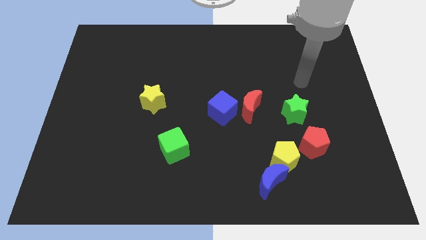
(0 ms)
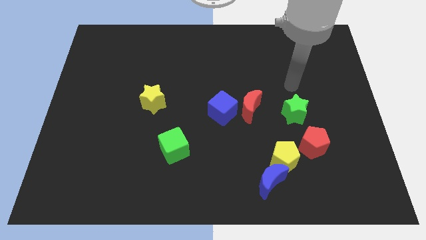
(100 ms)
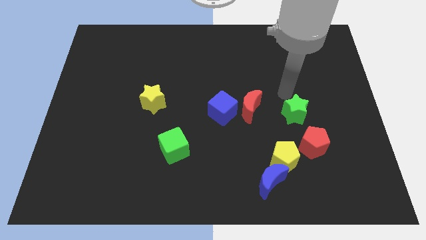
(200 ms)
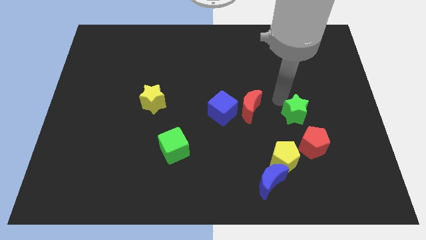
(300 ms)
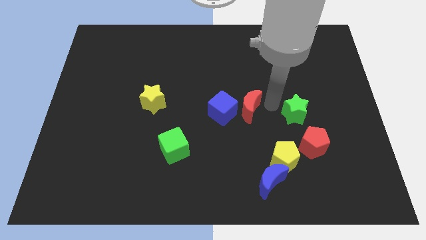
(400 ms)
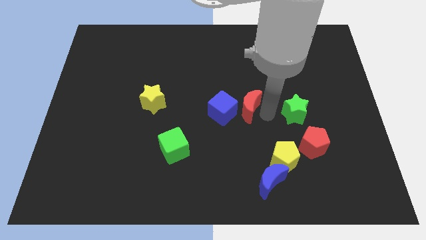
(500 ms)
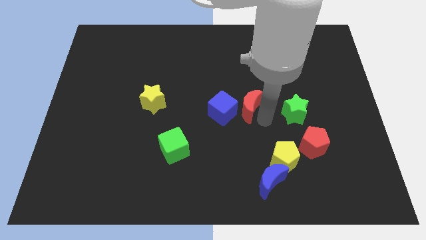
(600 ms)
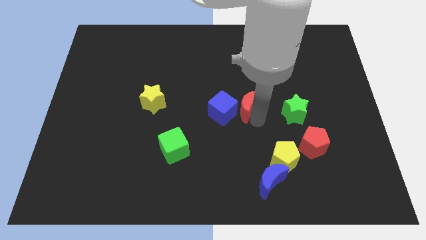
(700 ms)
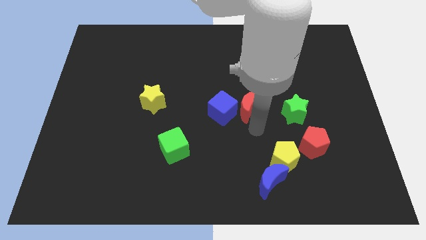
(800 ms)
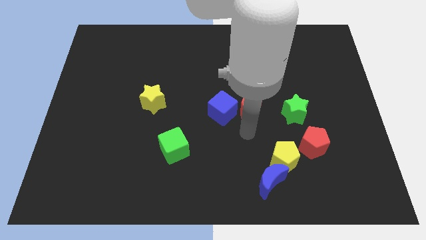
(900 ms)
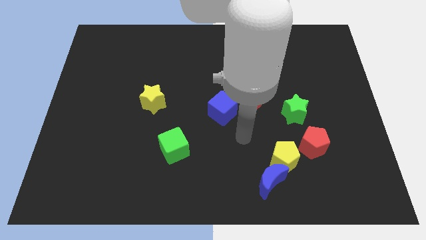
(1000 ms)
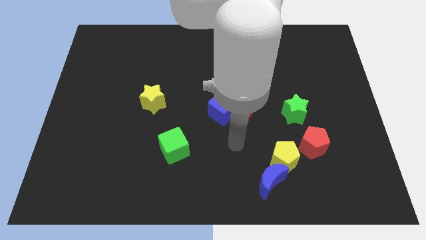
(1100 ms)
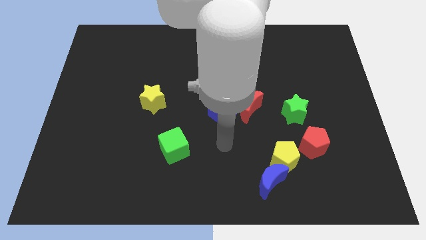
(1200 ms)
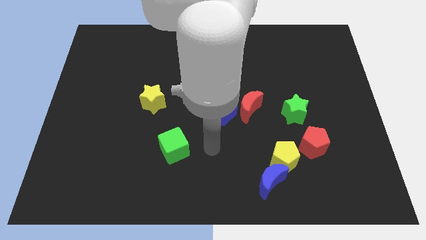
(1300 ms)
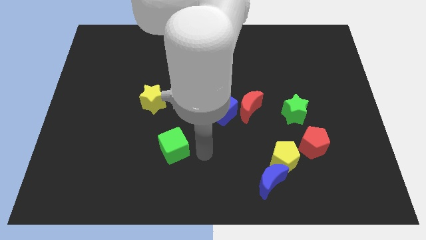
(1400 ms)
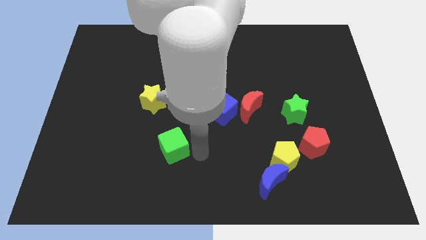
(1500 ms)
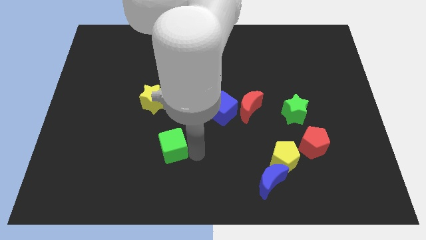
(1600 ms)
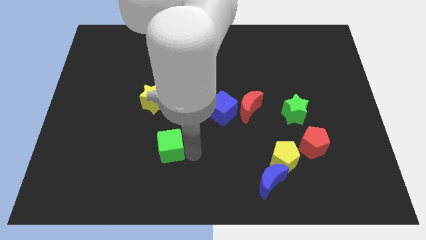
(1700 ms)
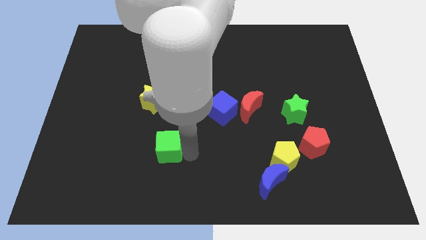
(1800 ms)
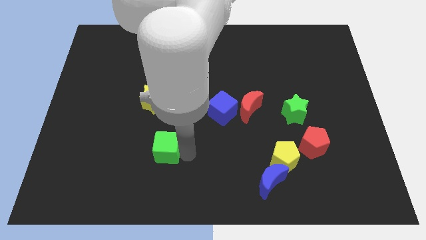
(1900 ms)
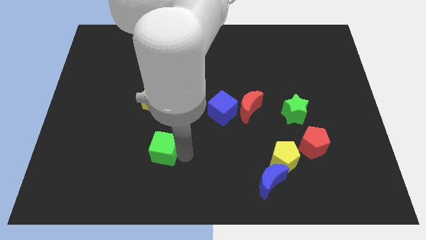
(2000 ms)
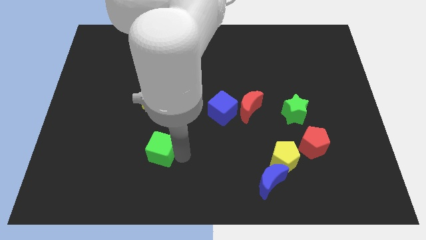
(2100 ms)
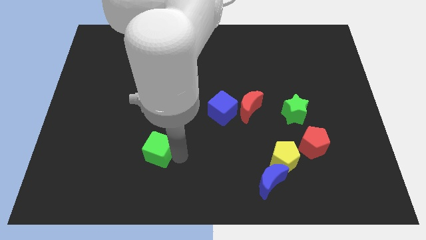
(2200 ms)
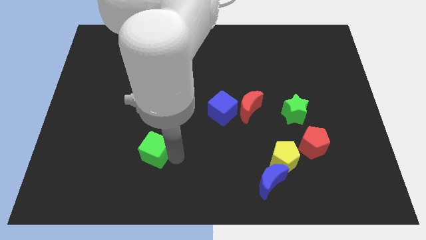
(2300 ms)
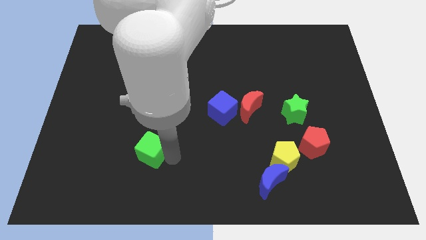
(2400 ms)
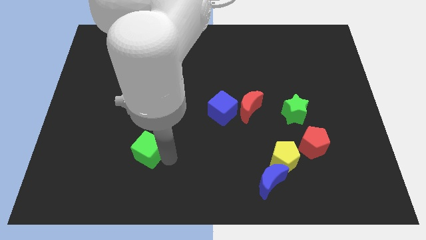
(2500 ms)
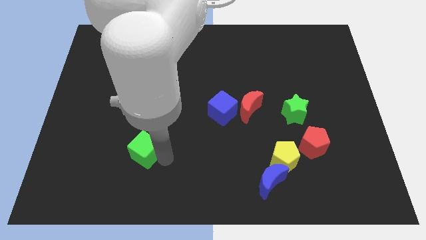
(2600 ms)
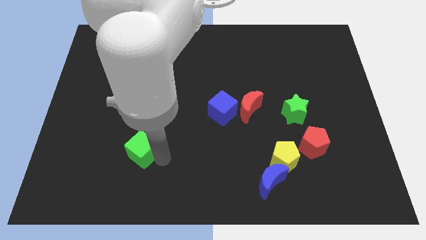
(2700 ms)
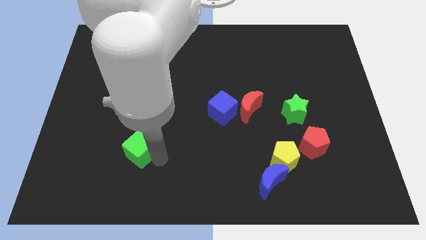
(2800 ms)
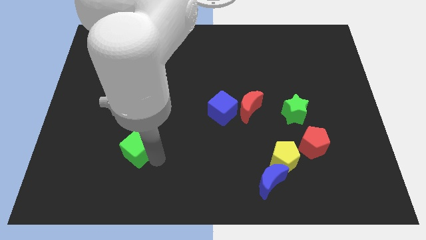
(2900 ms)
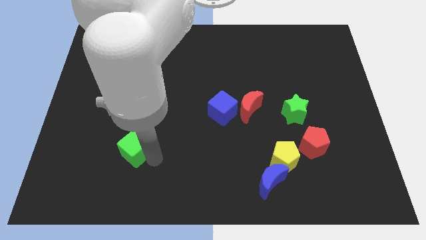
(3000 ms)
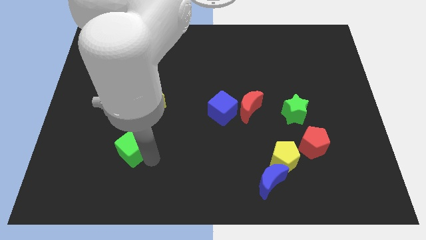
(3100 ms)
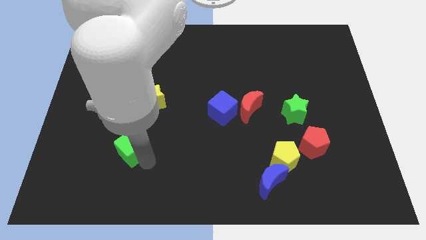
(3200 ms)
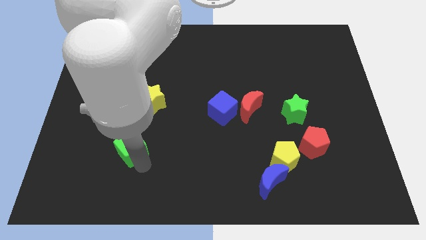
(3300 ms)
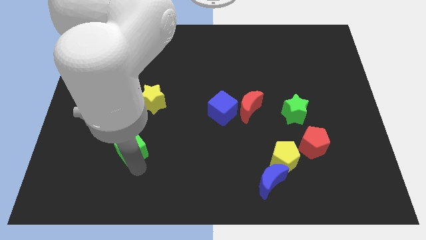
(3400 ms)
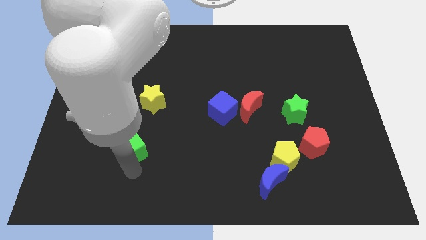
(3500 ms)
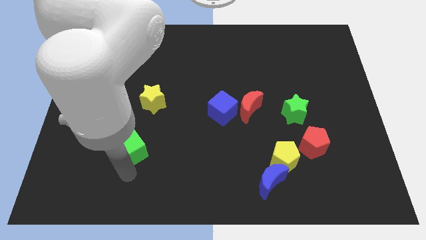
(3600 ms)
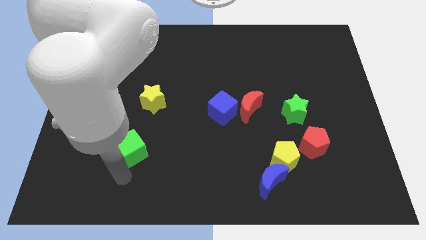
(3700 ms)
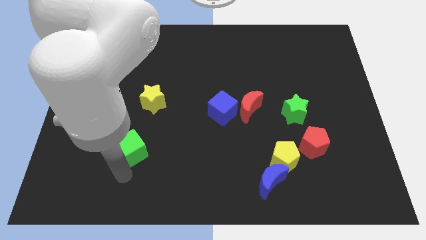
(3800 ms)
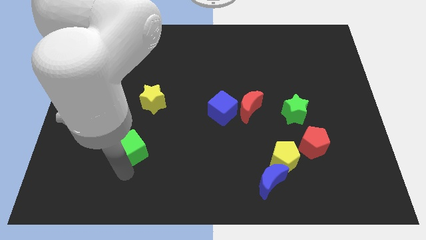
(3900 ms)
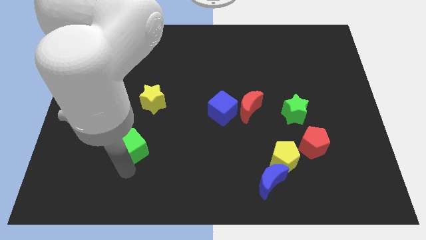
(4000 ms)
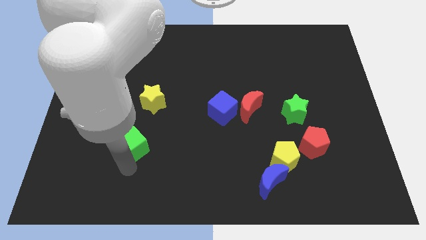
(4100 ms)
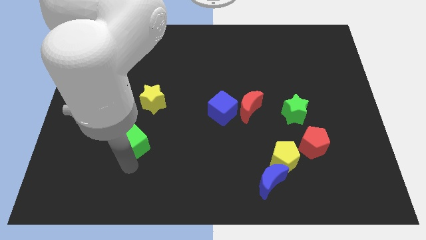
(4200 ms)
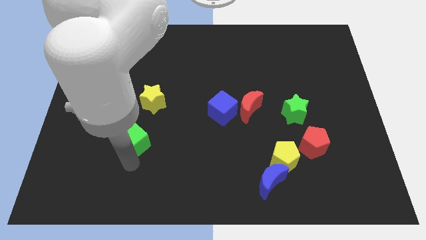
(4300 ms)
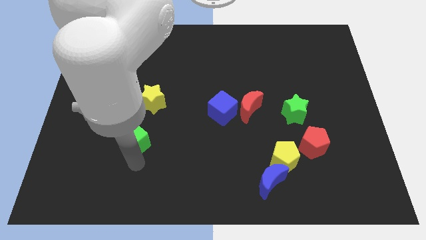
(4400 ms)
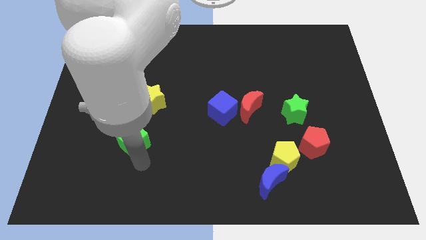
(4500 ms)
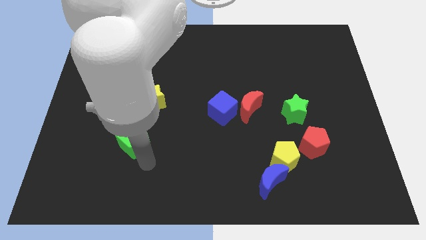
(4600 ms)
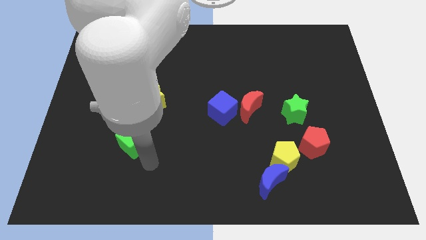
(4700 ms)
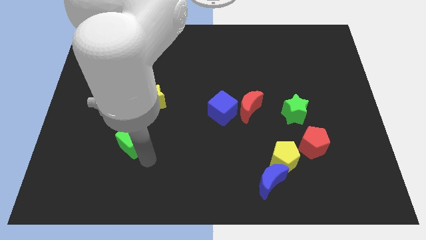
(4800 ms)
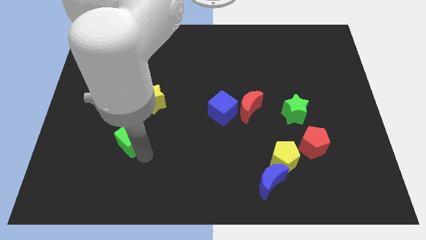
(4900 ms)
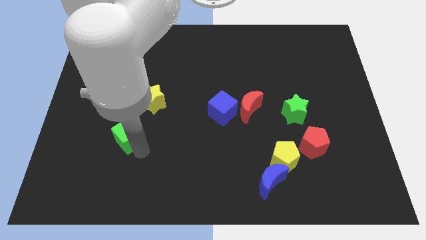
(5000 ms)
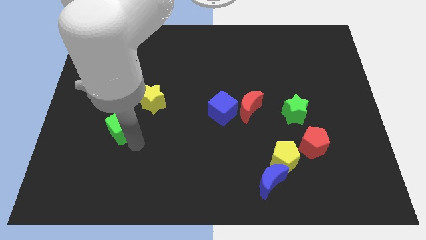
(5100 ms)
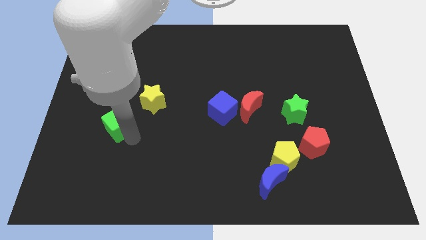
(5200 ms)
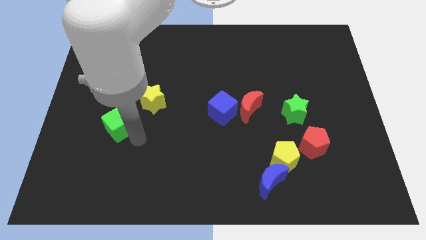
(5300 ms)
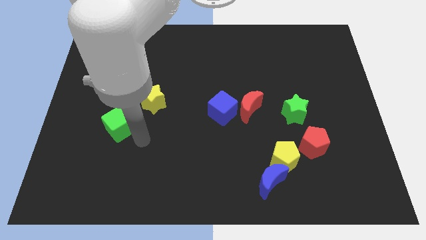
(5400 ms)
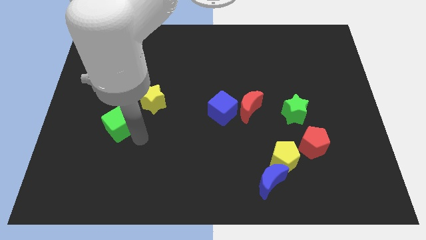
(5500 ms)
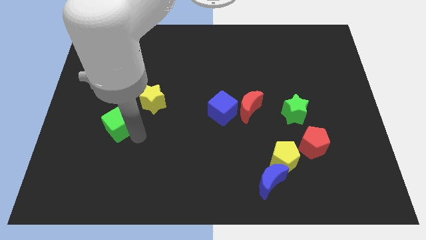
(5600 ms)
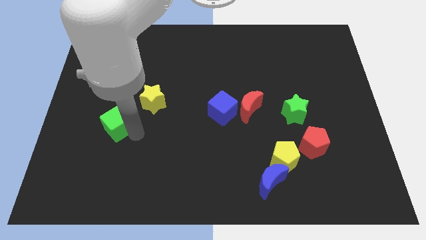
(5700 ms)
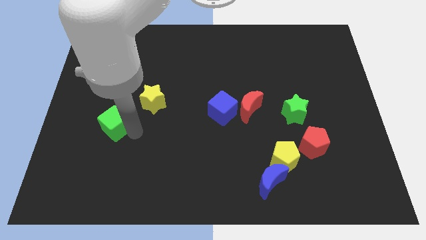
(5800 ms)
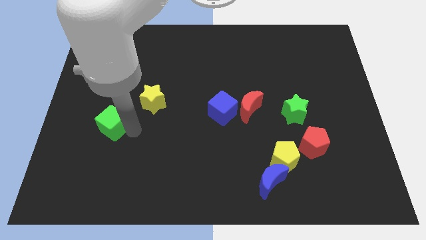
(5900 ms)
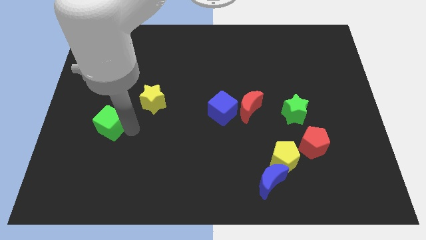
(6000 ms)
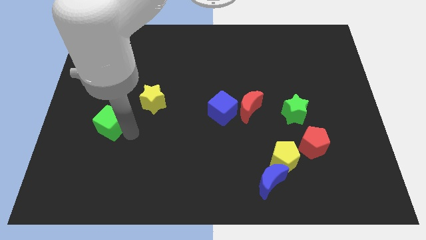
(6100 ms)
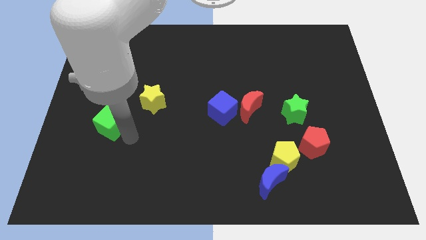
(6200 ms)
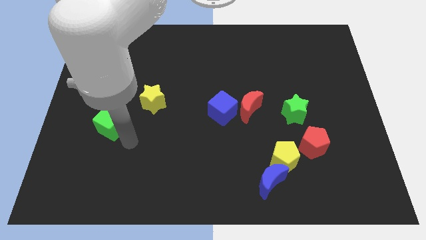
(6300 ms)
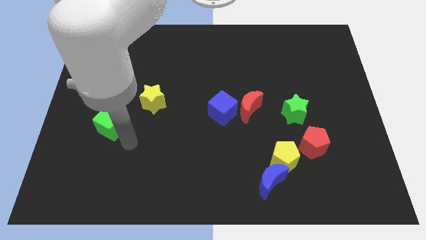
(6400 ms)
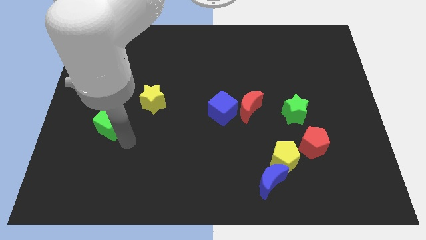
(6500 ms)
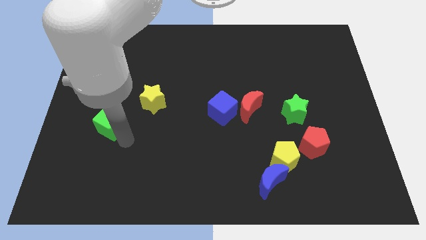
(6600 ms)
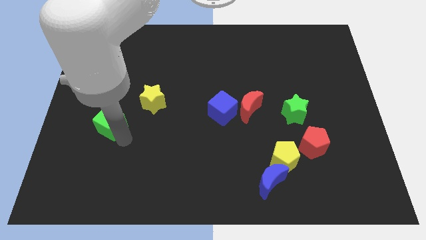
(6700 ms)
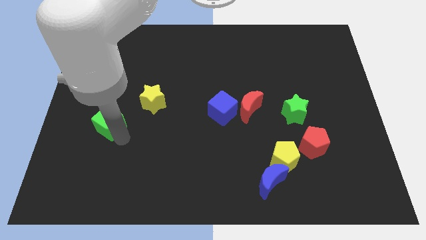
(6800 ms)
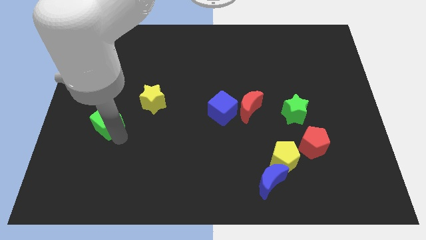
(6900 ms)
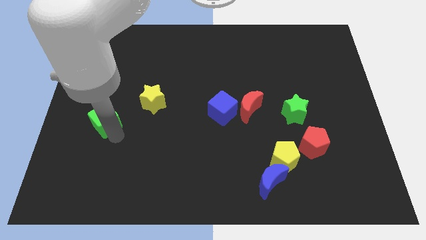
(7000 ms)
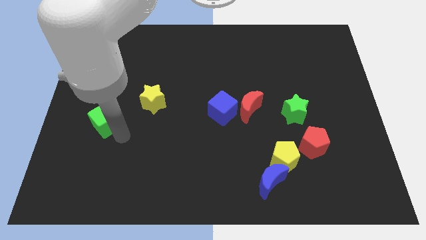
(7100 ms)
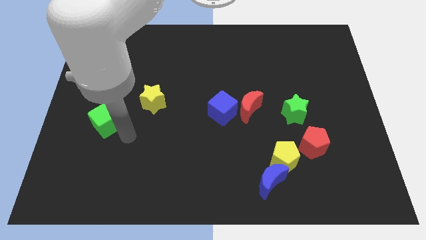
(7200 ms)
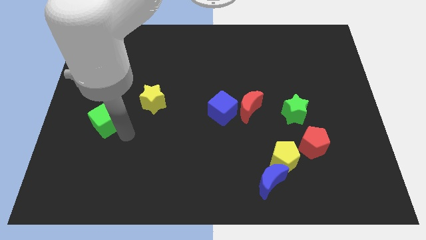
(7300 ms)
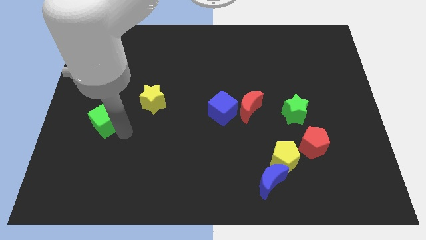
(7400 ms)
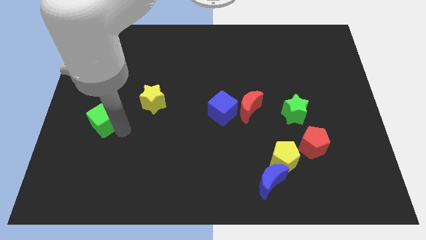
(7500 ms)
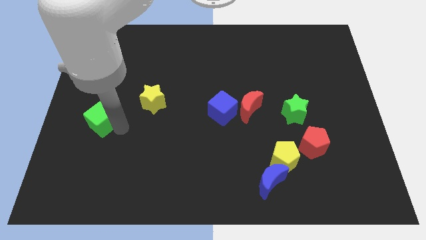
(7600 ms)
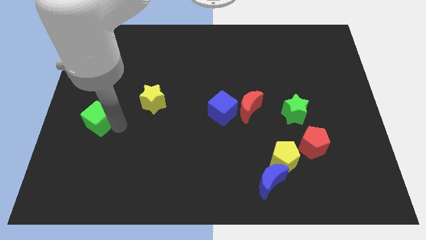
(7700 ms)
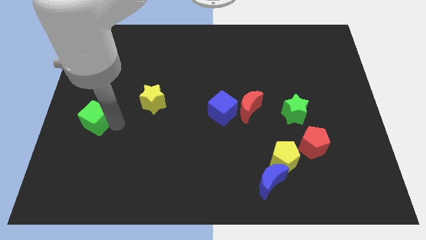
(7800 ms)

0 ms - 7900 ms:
slide the green cube to the left side
